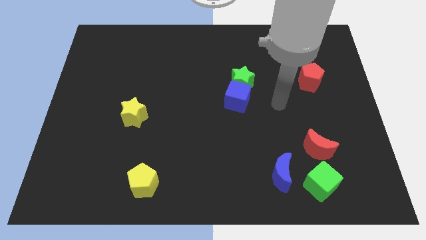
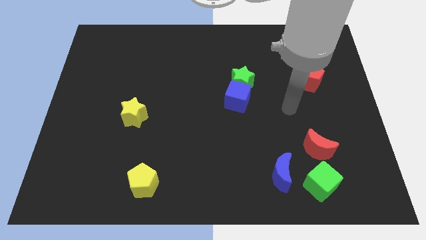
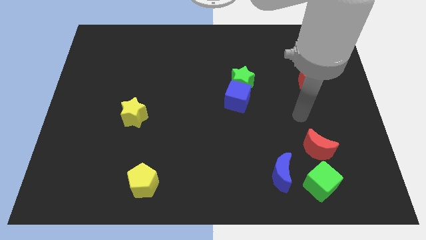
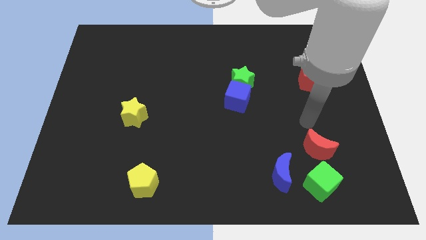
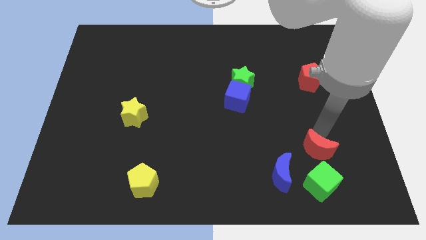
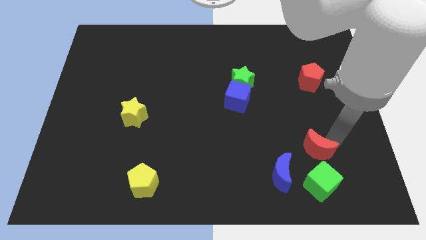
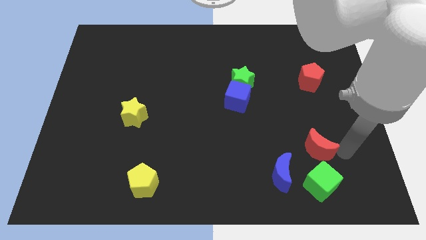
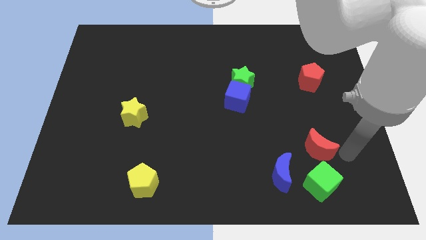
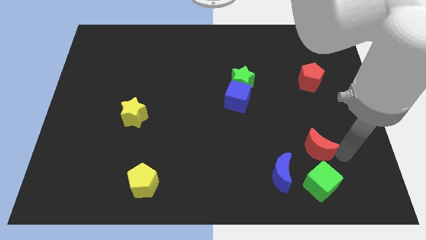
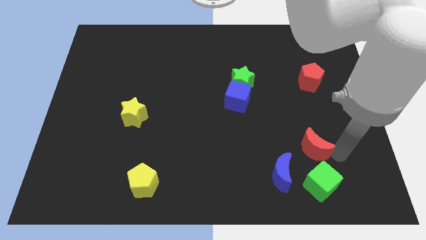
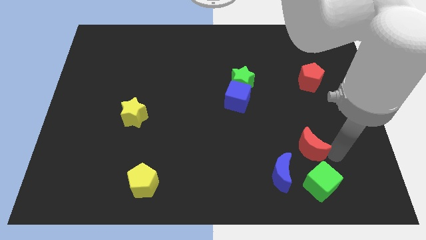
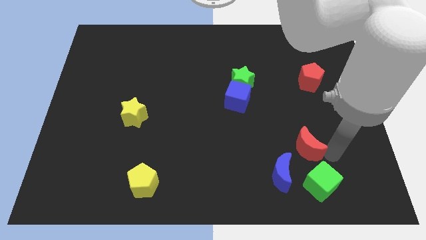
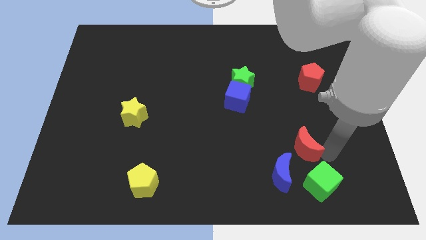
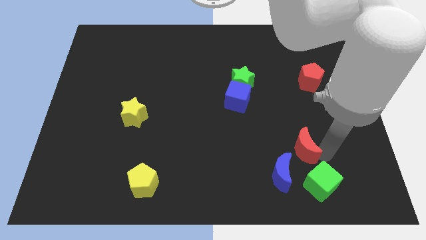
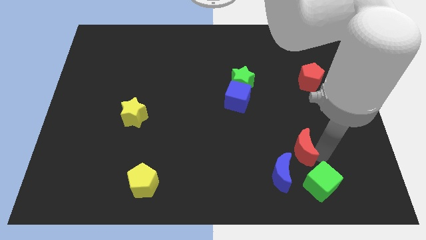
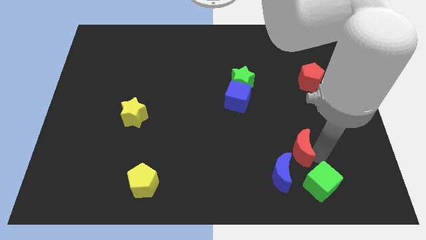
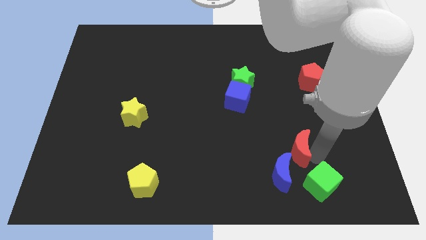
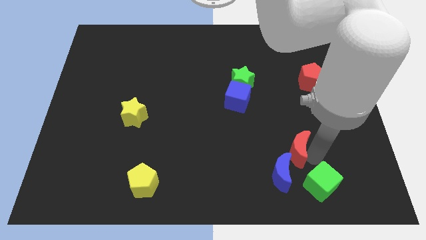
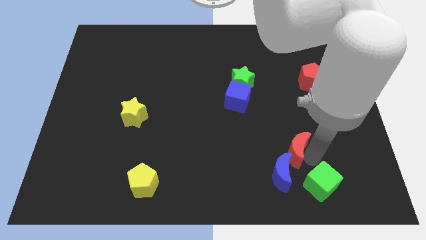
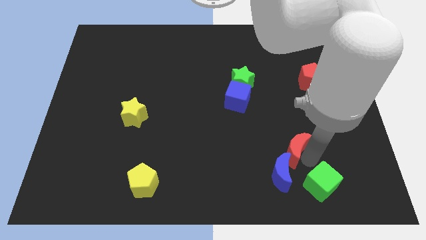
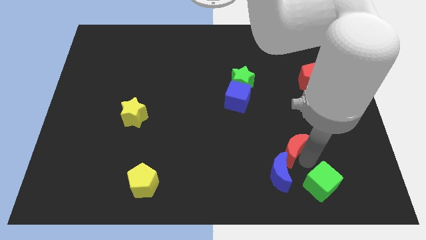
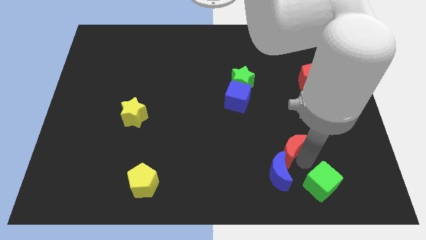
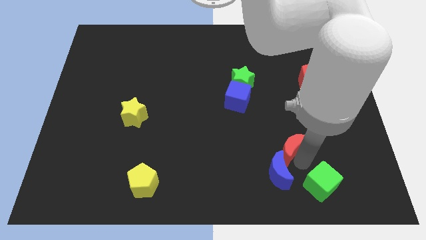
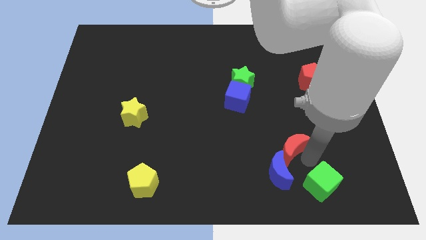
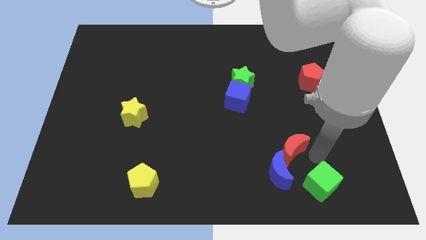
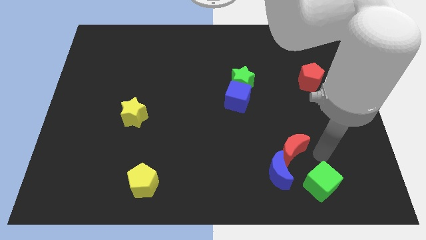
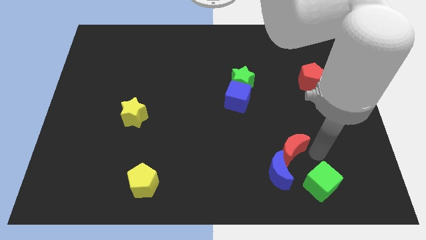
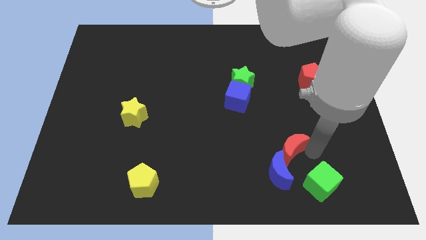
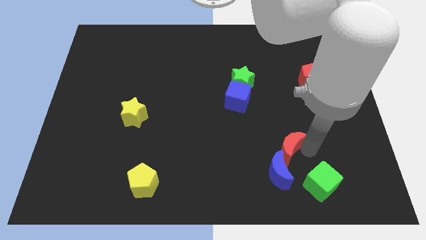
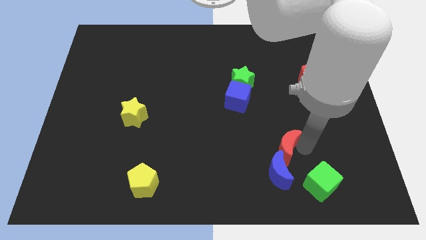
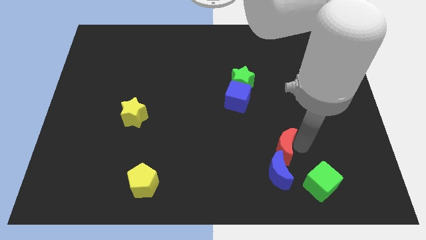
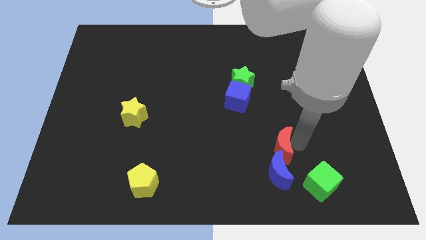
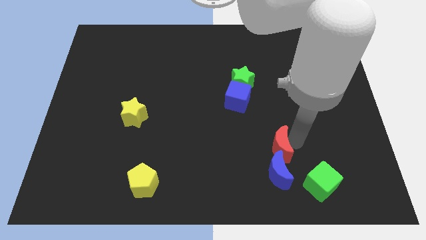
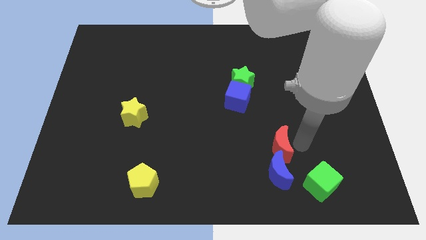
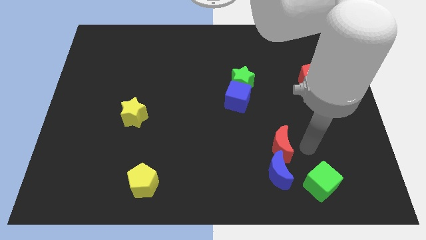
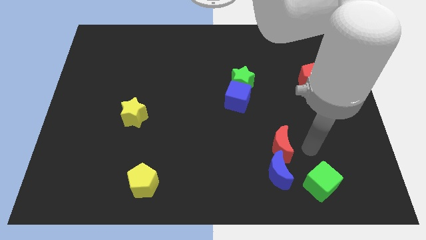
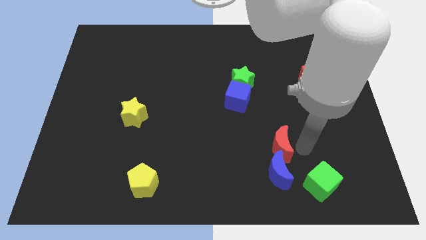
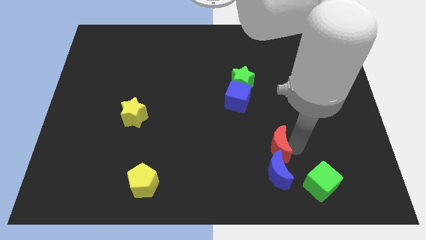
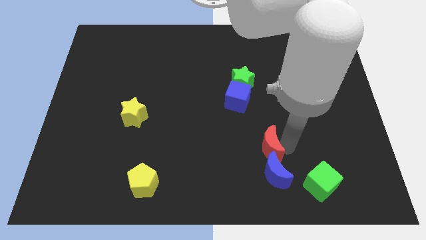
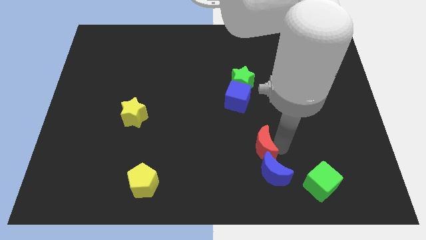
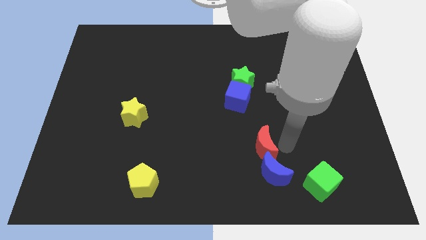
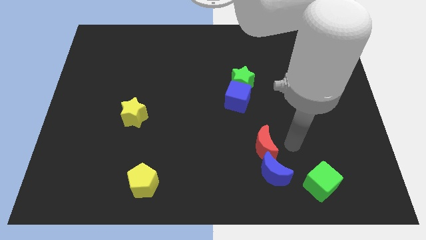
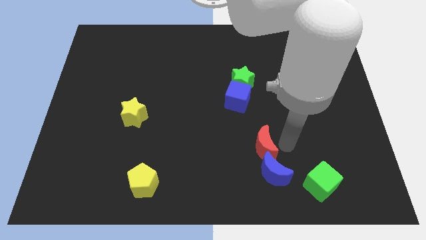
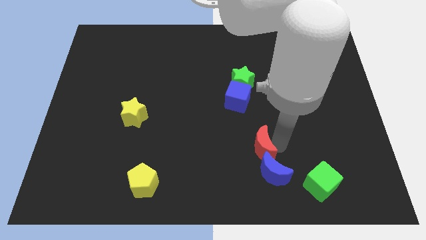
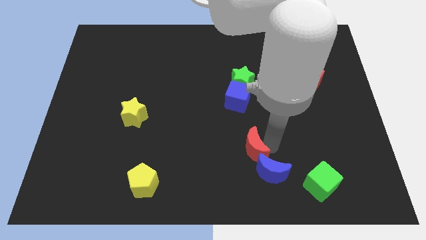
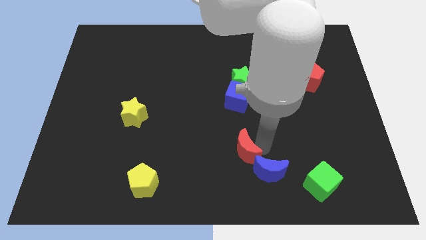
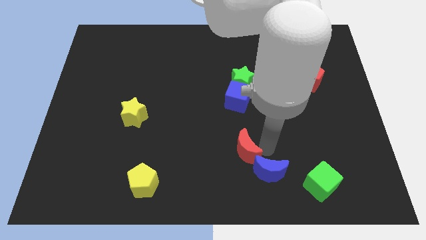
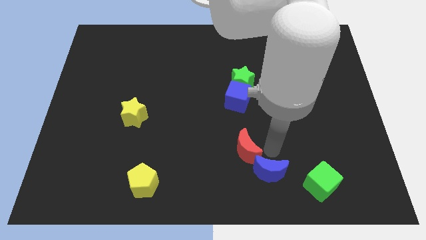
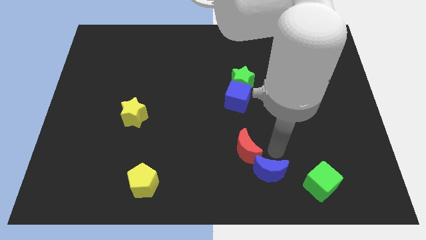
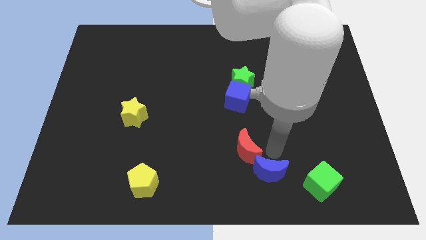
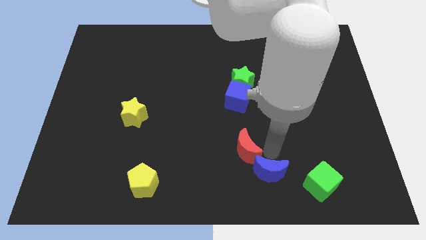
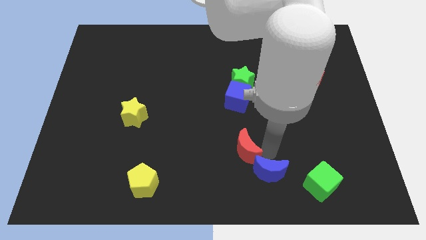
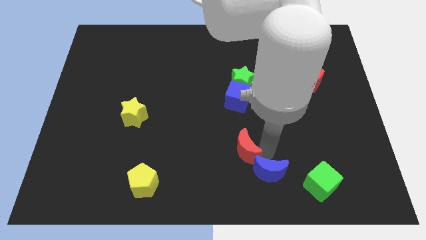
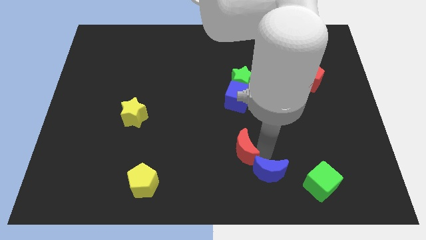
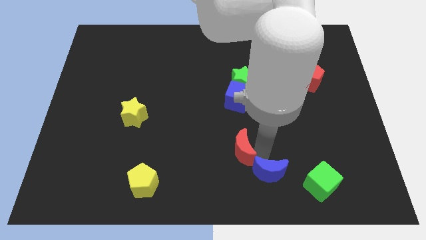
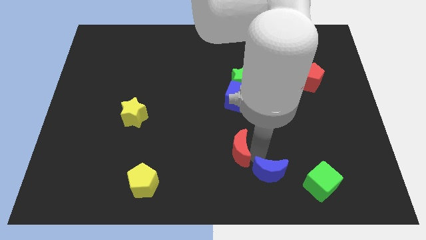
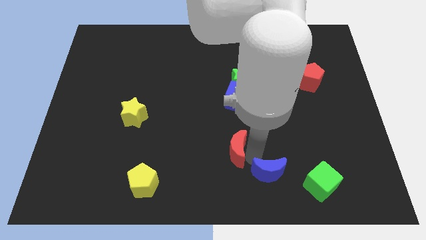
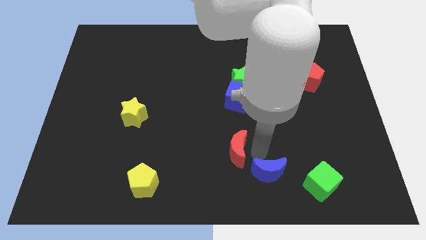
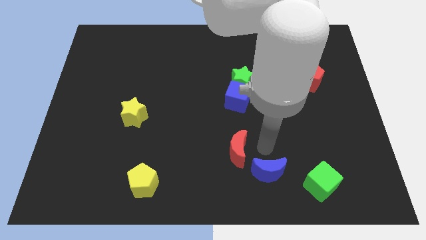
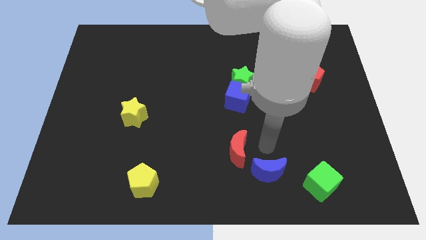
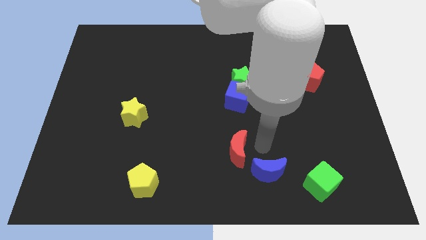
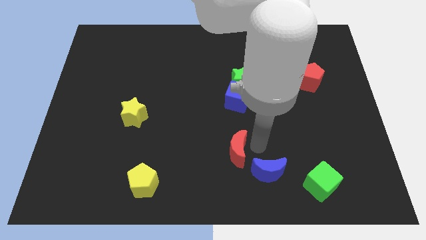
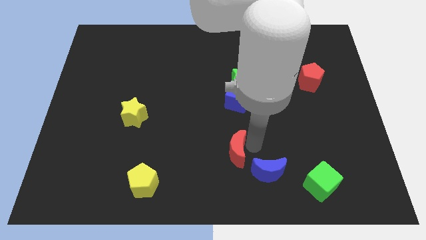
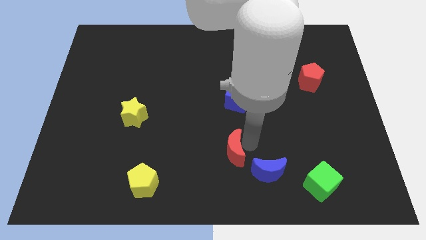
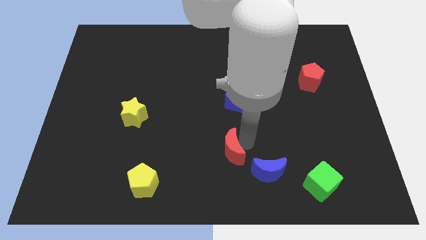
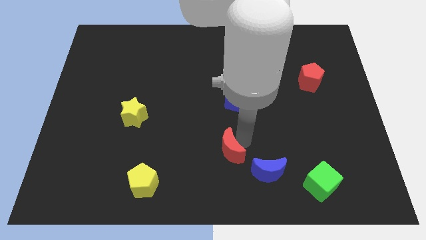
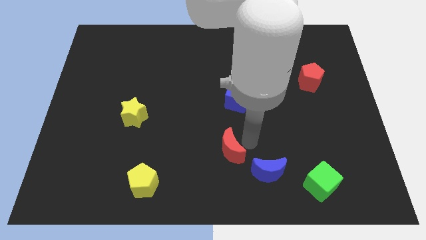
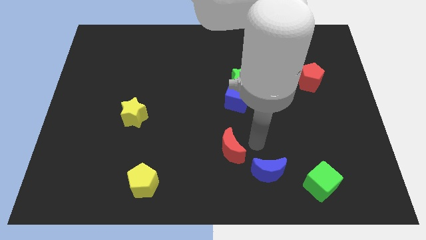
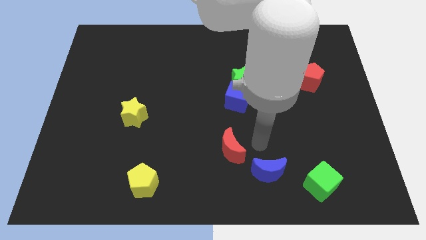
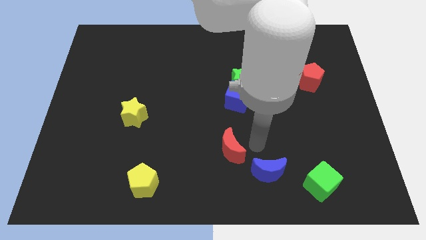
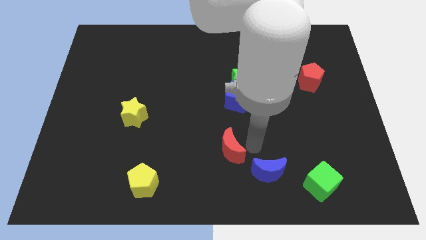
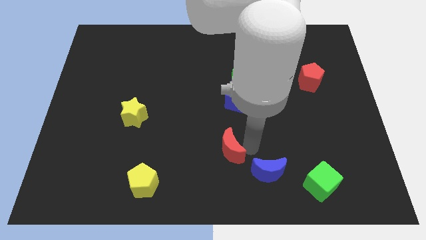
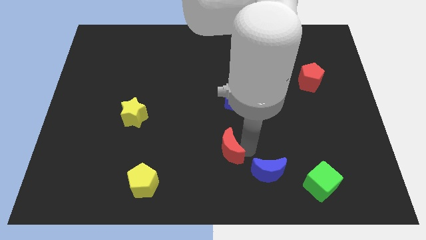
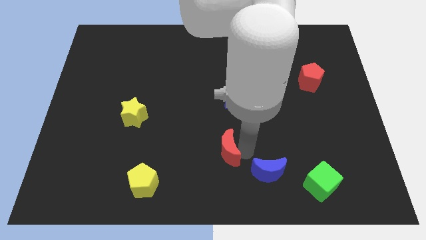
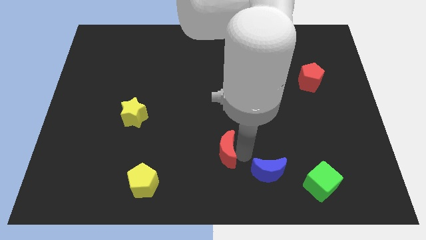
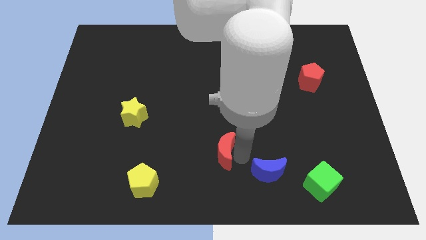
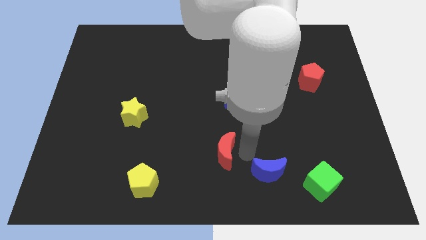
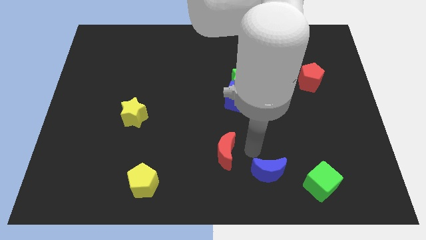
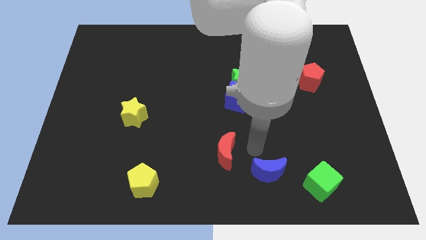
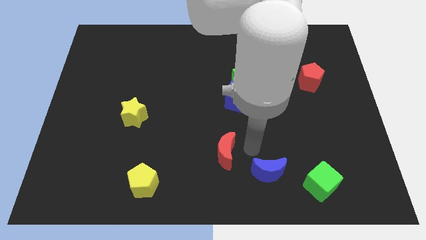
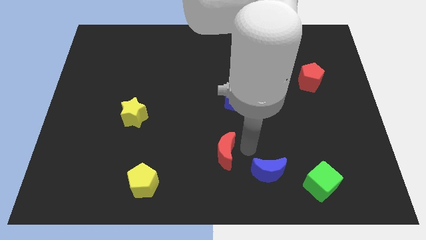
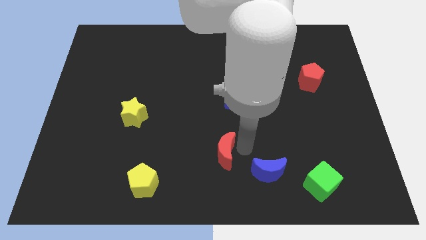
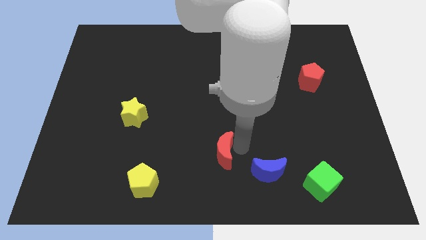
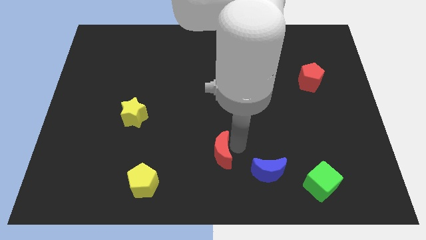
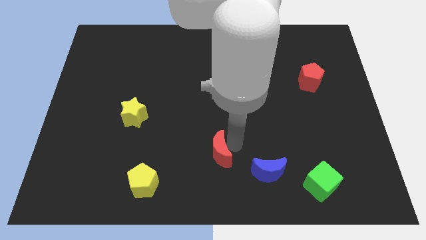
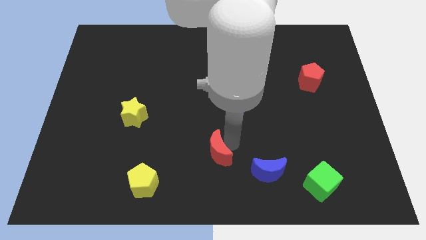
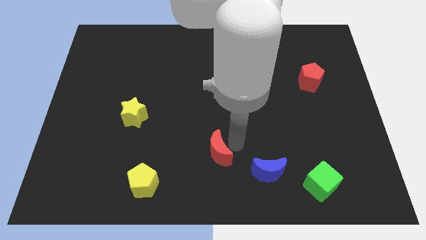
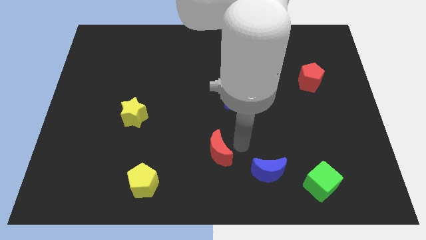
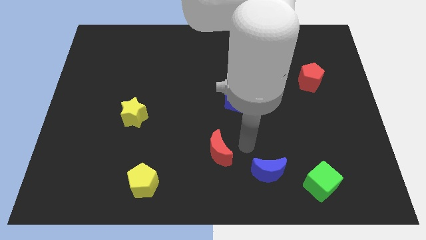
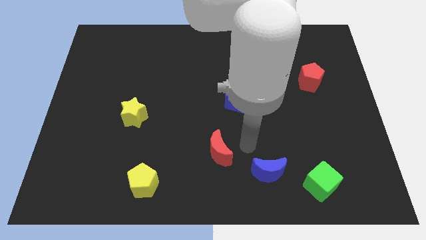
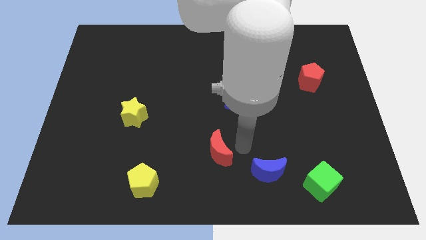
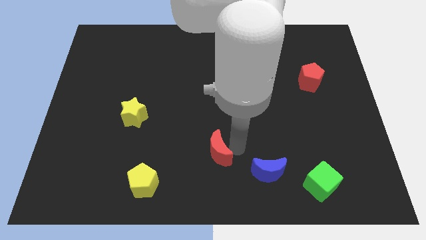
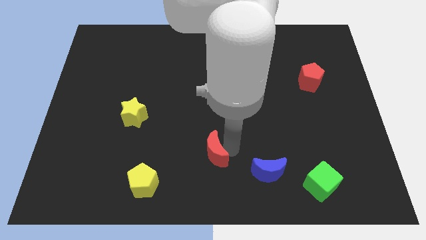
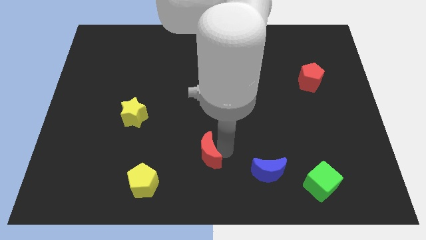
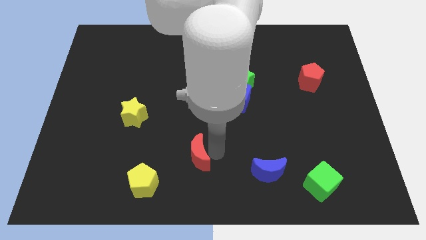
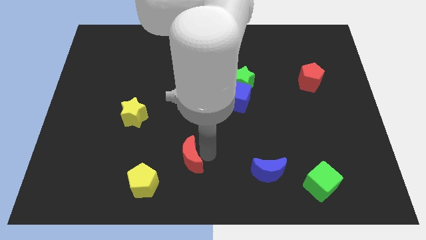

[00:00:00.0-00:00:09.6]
push the red moon to the top right of the yellow pentagon
